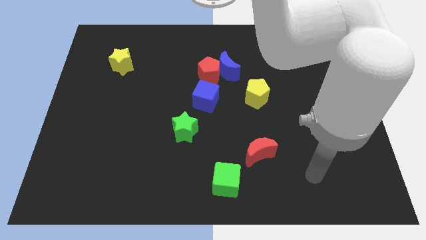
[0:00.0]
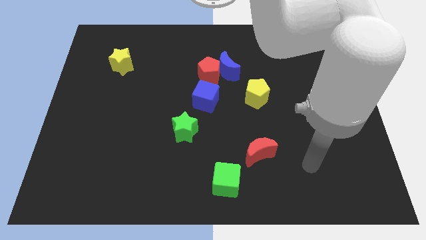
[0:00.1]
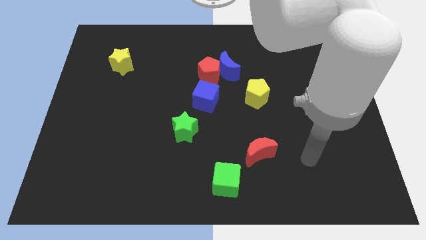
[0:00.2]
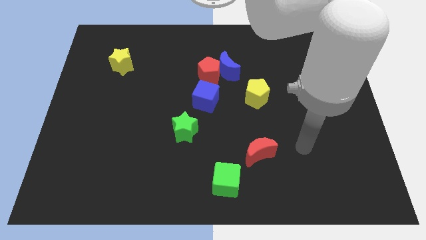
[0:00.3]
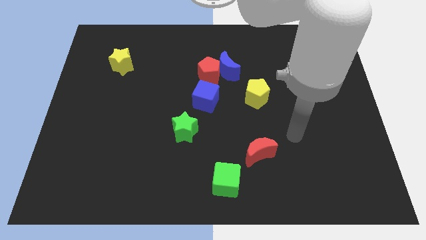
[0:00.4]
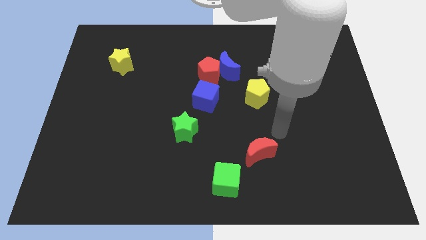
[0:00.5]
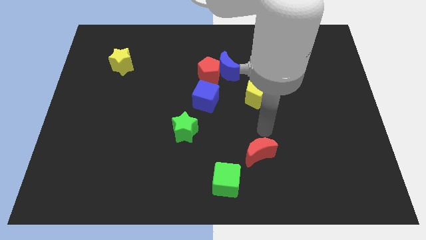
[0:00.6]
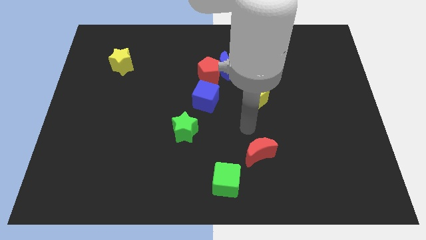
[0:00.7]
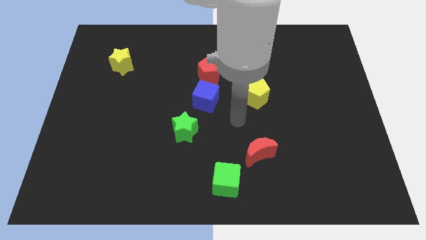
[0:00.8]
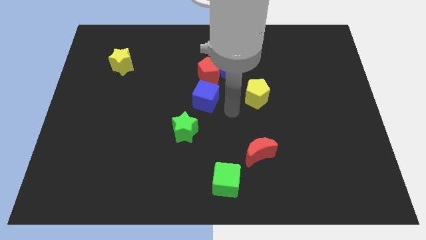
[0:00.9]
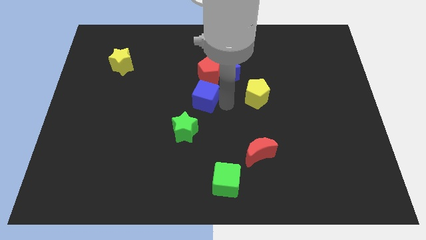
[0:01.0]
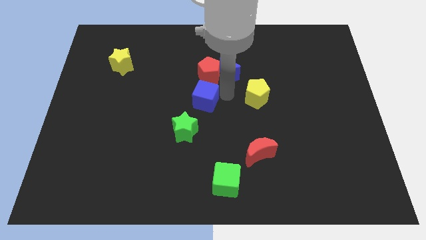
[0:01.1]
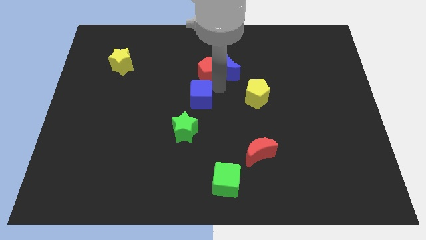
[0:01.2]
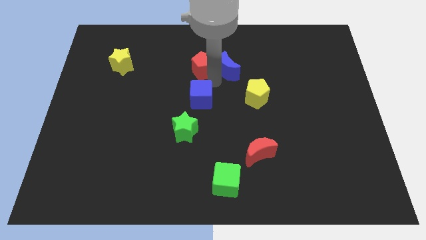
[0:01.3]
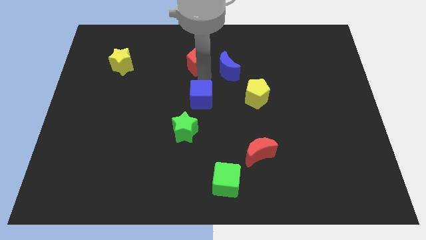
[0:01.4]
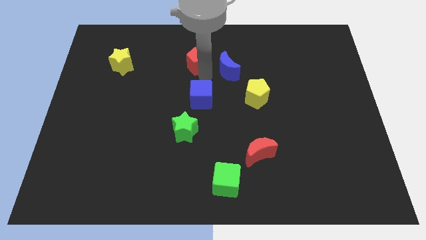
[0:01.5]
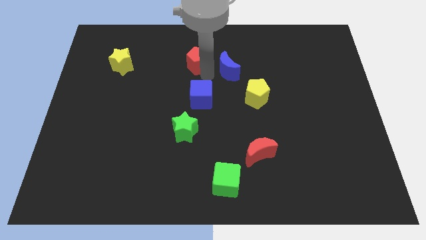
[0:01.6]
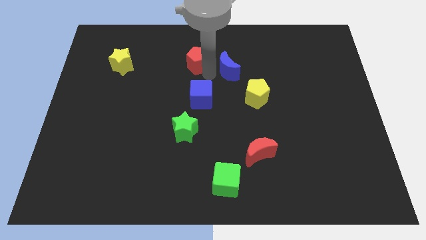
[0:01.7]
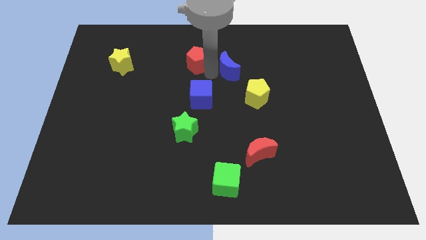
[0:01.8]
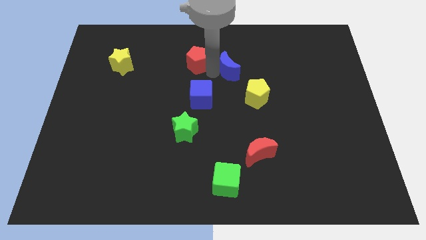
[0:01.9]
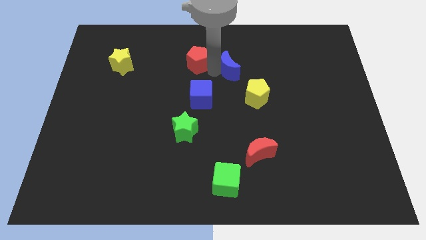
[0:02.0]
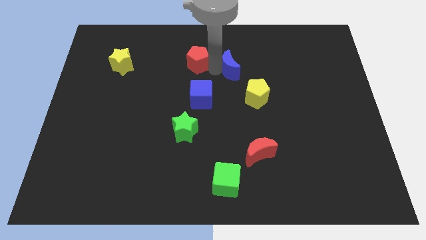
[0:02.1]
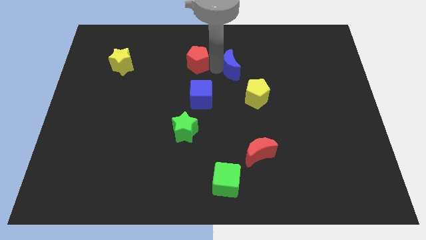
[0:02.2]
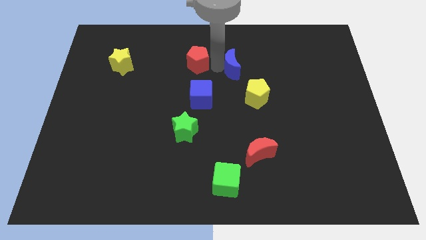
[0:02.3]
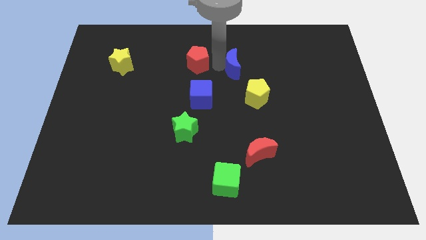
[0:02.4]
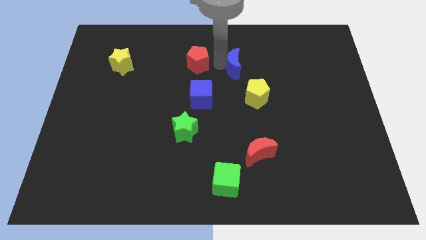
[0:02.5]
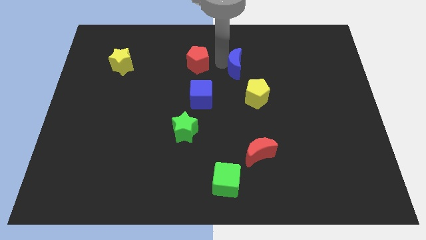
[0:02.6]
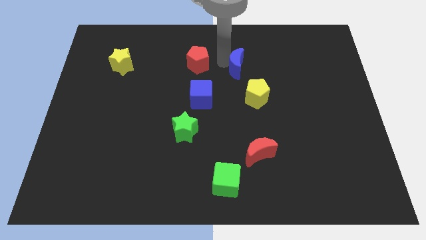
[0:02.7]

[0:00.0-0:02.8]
pull the blue moon apart from the red pentagon

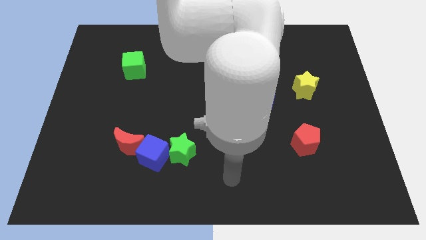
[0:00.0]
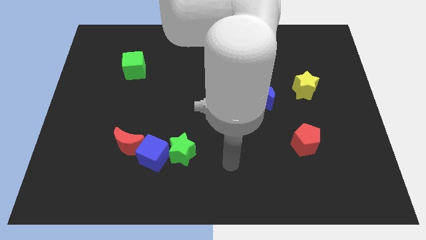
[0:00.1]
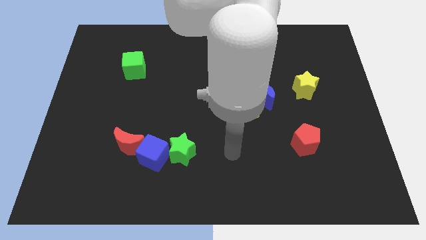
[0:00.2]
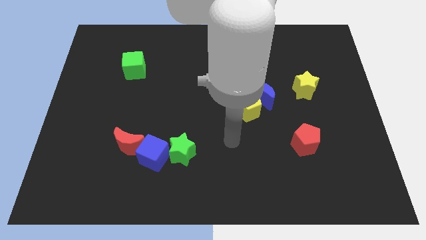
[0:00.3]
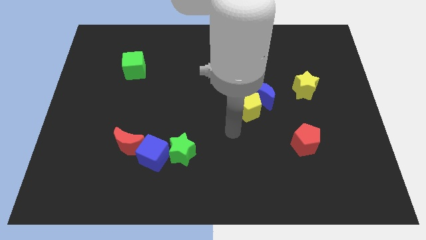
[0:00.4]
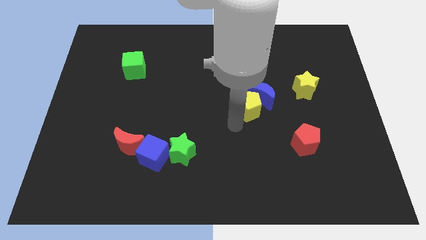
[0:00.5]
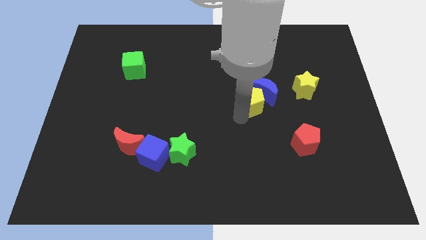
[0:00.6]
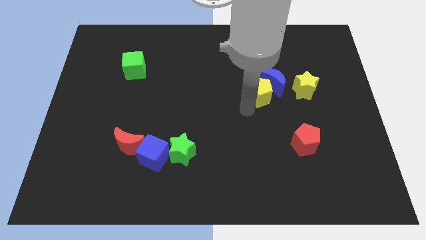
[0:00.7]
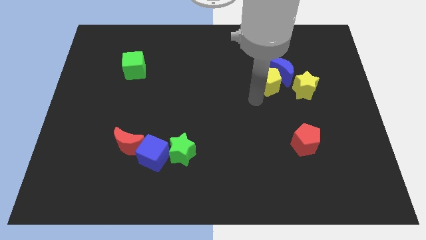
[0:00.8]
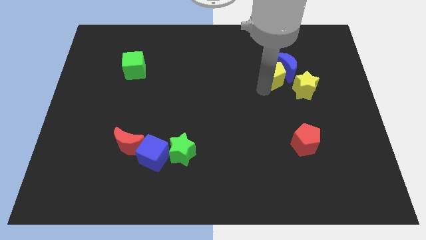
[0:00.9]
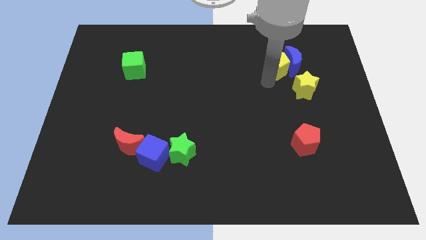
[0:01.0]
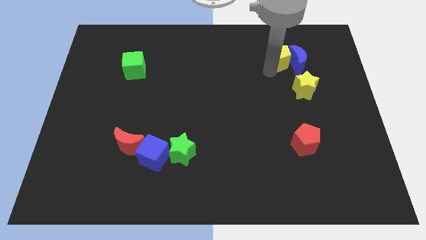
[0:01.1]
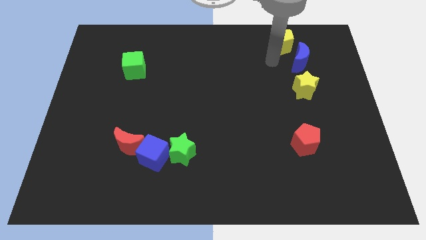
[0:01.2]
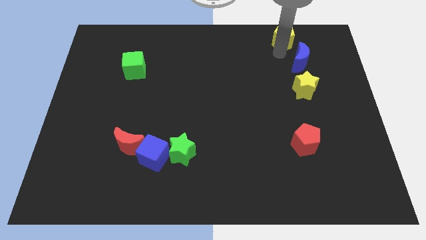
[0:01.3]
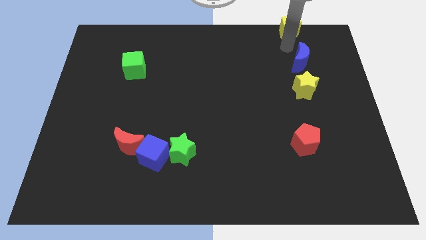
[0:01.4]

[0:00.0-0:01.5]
separate the blue moon from the yellow pentagon

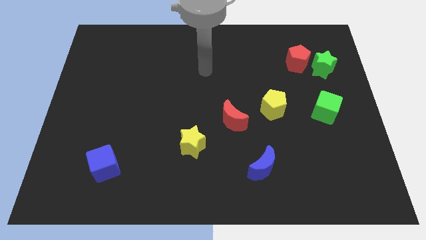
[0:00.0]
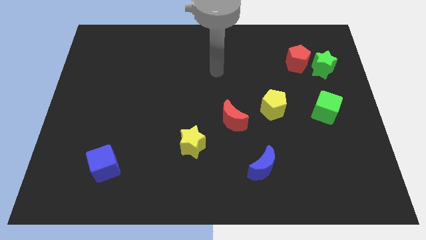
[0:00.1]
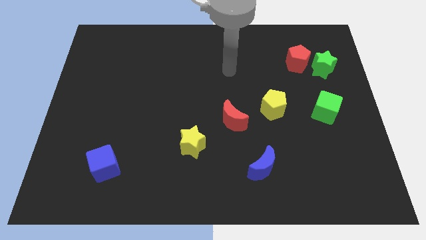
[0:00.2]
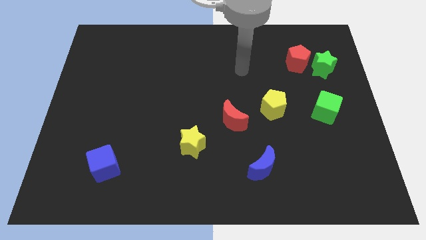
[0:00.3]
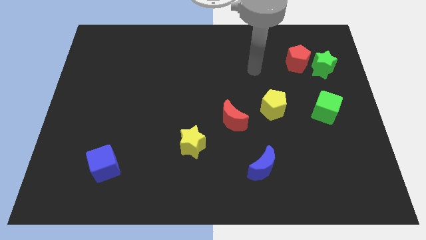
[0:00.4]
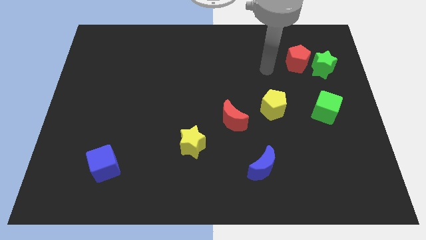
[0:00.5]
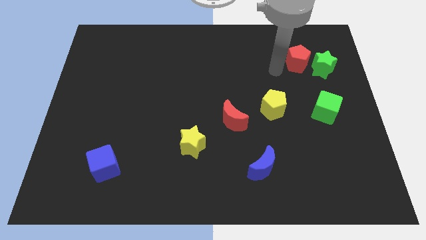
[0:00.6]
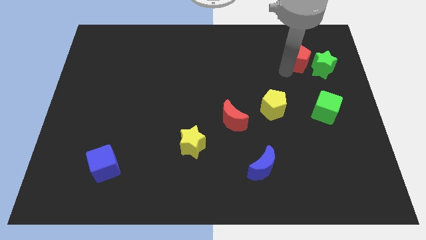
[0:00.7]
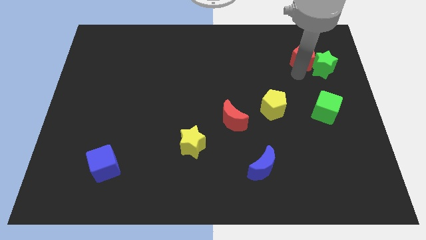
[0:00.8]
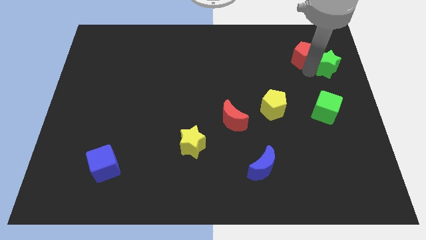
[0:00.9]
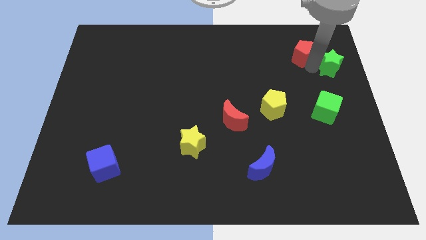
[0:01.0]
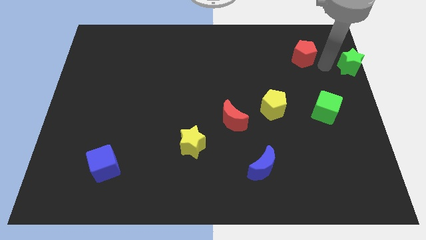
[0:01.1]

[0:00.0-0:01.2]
pull the red pentagon apart from the green star

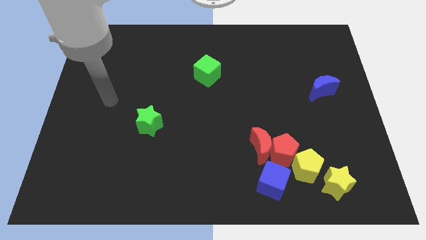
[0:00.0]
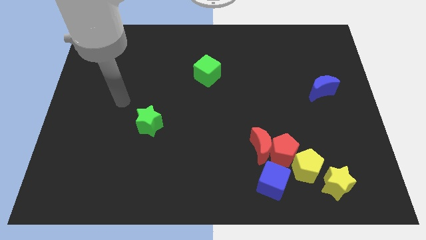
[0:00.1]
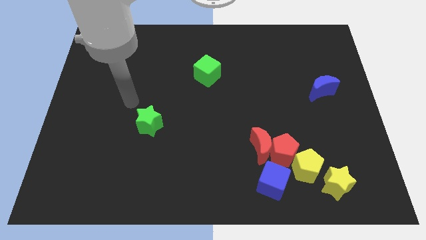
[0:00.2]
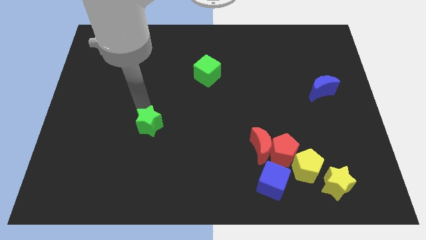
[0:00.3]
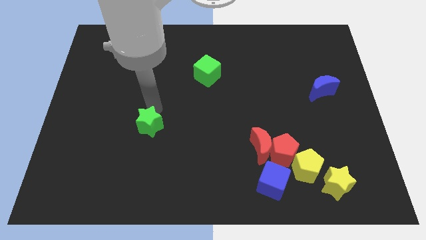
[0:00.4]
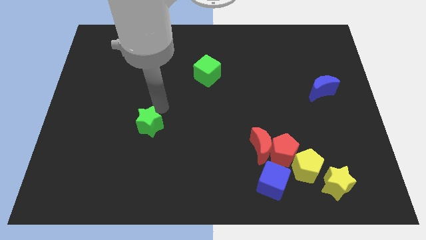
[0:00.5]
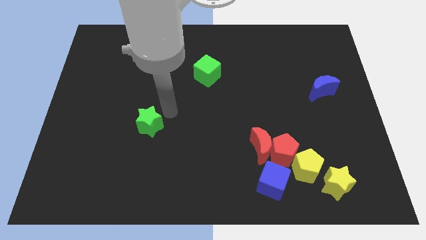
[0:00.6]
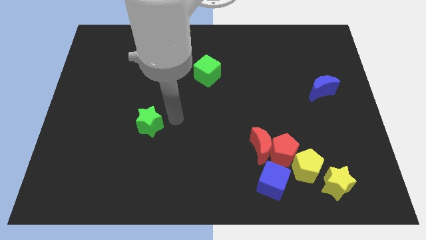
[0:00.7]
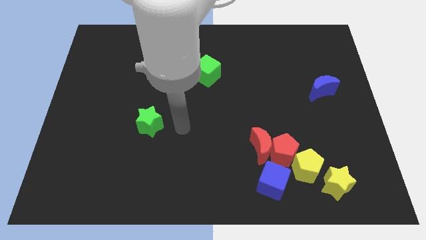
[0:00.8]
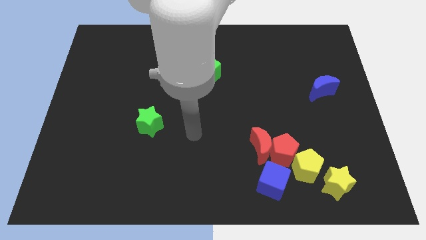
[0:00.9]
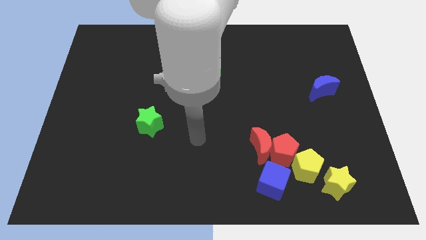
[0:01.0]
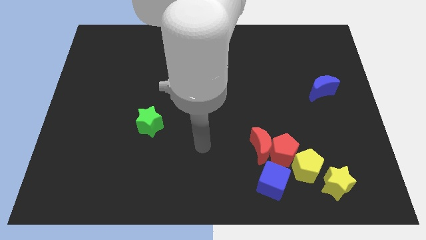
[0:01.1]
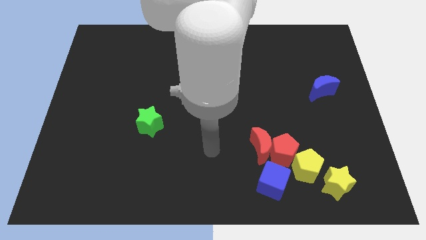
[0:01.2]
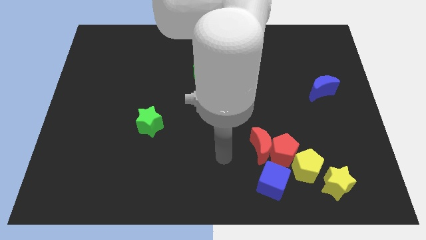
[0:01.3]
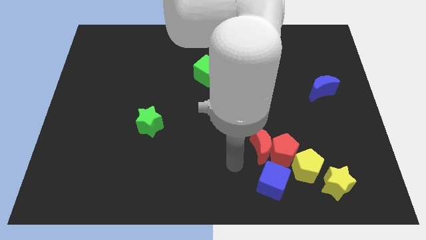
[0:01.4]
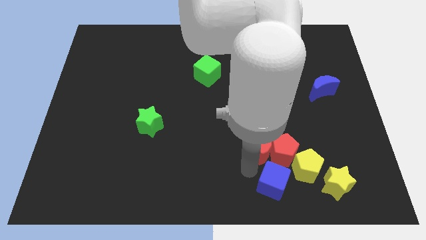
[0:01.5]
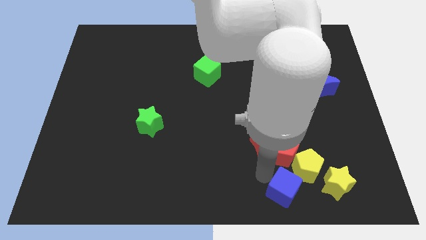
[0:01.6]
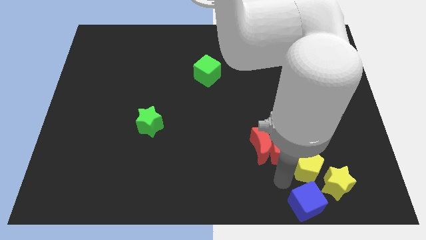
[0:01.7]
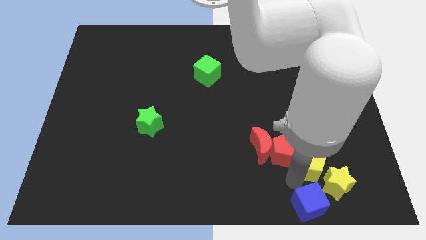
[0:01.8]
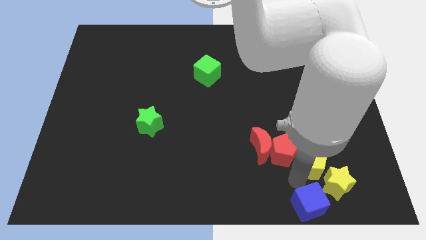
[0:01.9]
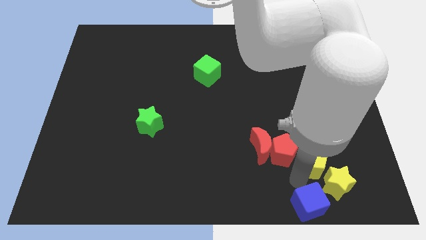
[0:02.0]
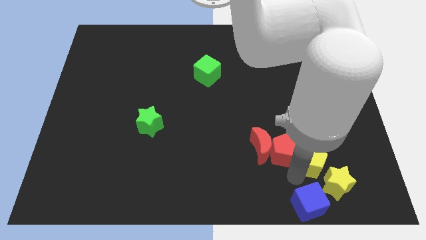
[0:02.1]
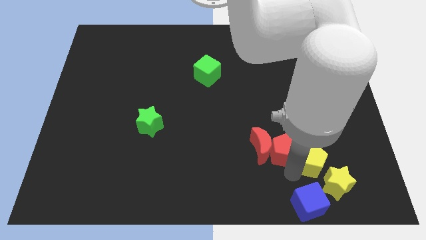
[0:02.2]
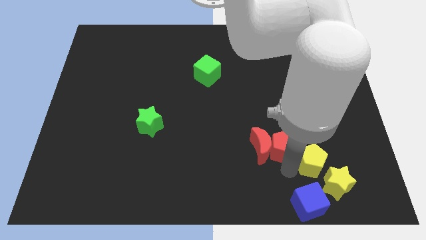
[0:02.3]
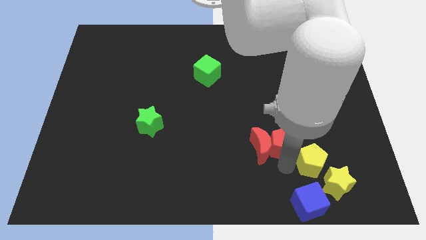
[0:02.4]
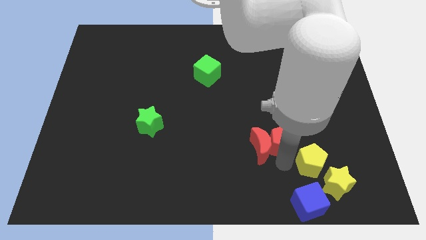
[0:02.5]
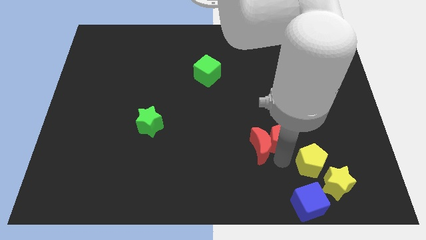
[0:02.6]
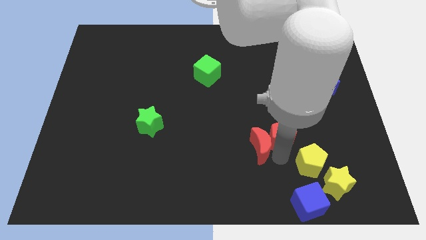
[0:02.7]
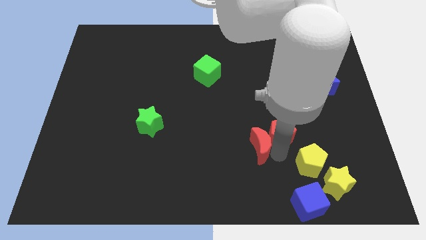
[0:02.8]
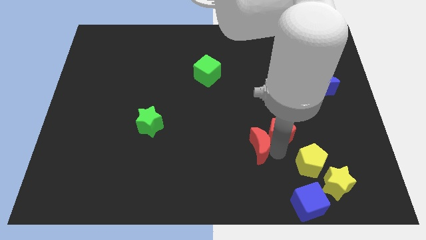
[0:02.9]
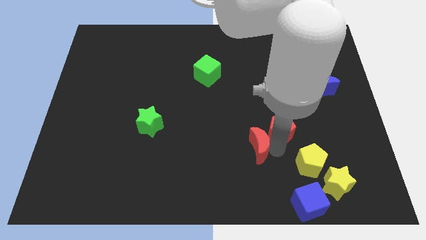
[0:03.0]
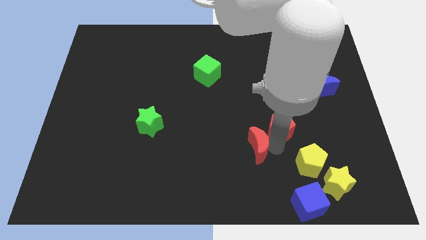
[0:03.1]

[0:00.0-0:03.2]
separate the red pentagon from the red moon, yellow pentagon, and blue cube

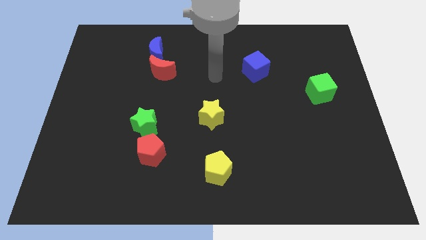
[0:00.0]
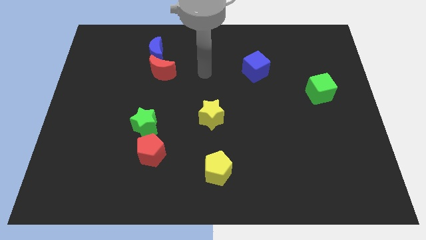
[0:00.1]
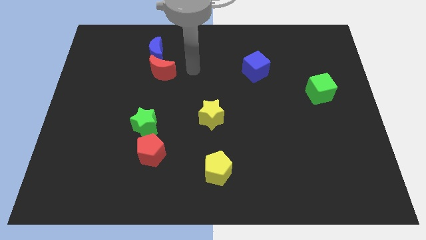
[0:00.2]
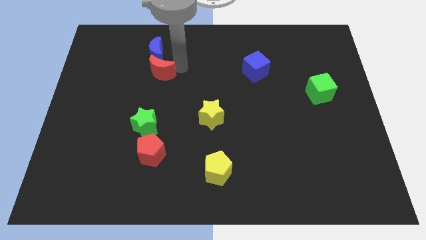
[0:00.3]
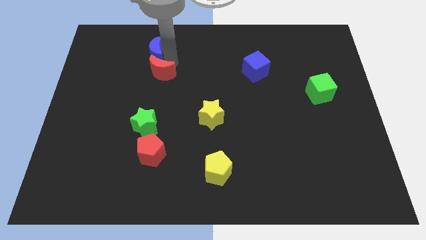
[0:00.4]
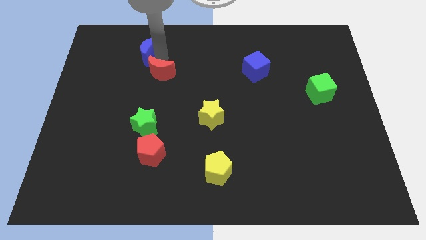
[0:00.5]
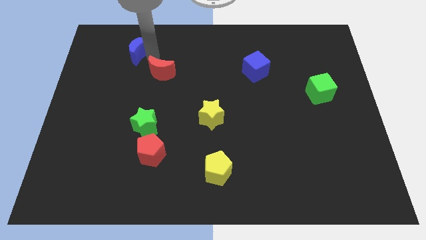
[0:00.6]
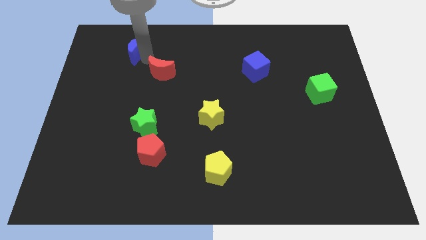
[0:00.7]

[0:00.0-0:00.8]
move the red moon away from the blue moon
